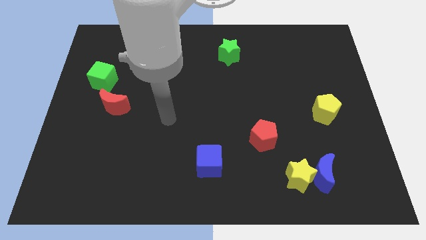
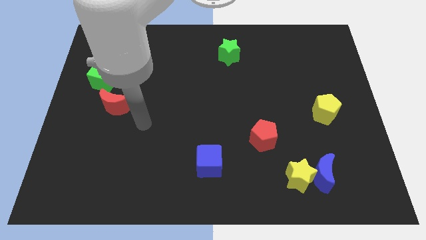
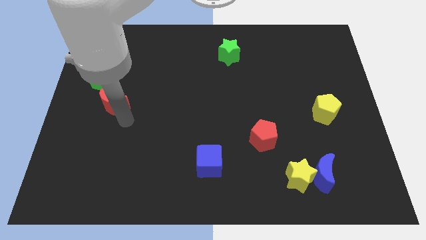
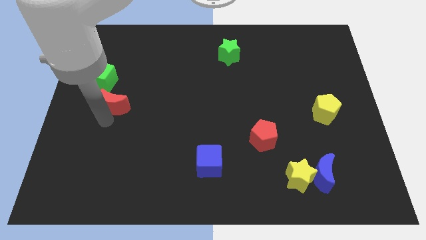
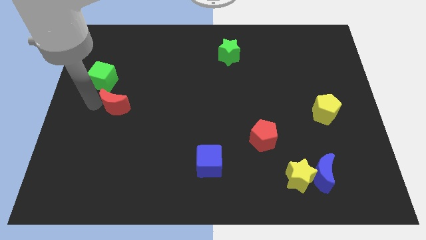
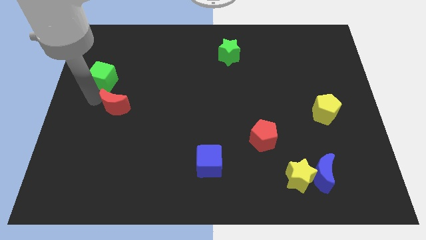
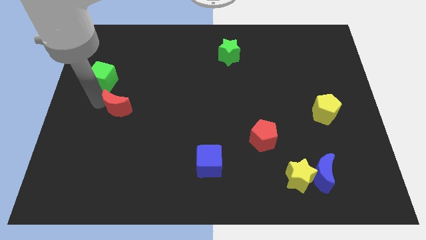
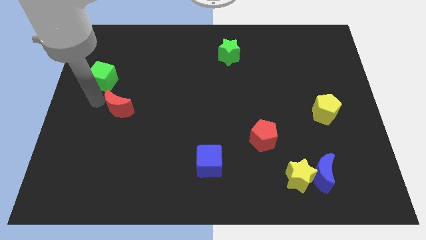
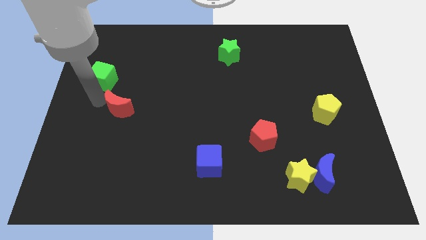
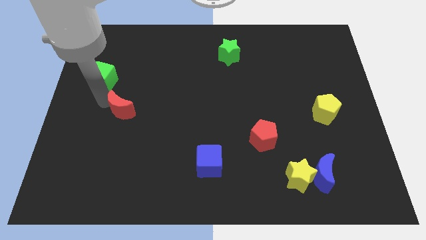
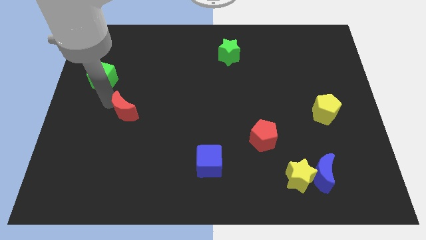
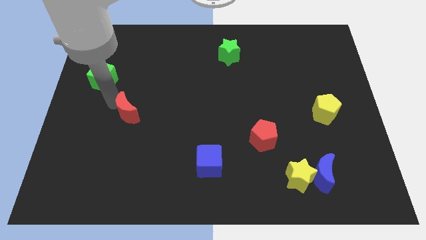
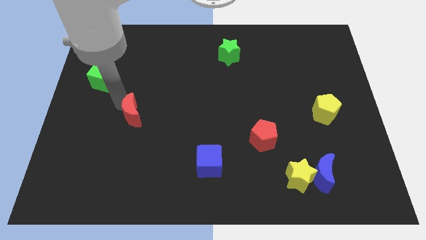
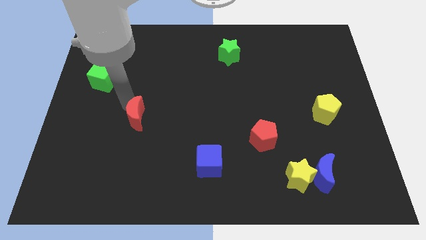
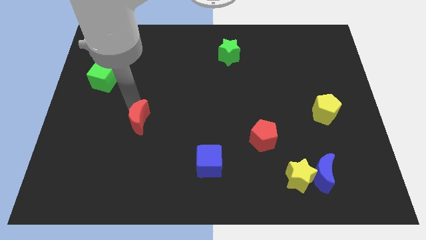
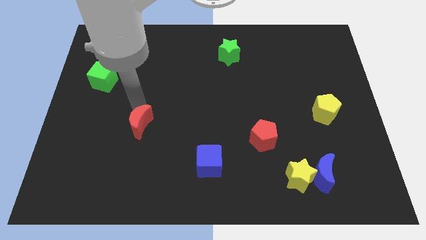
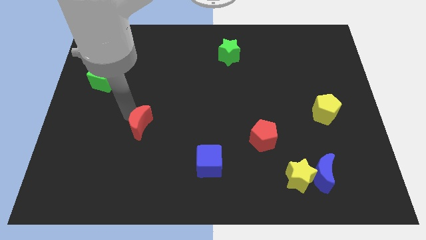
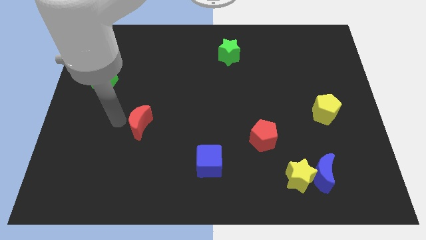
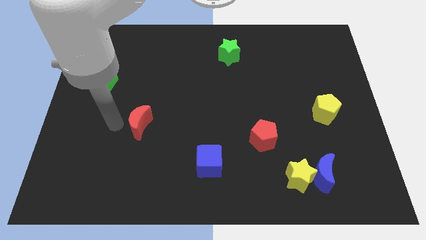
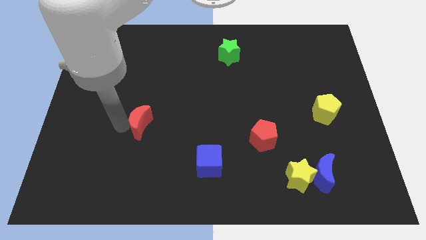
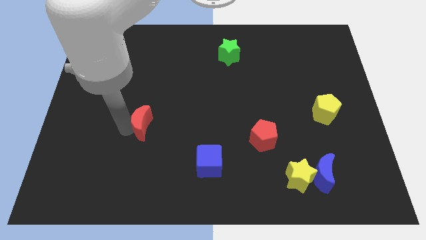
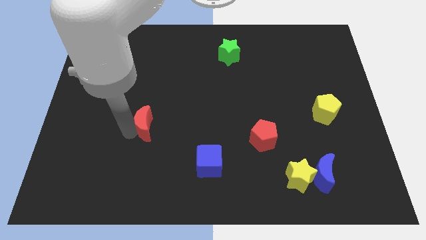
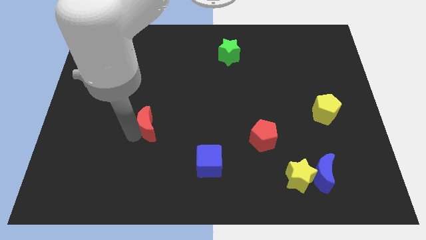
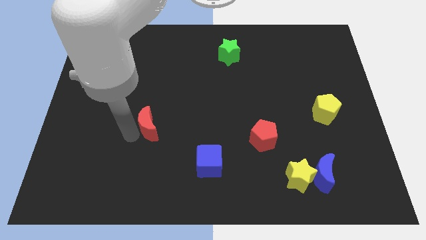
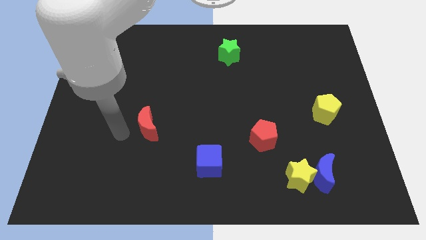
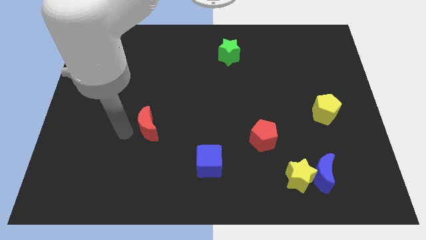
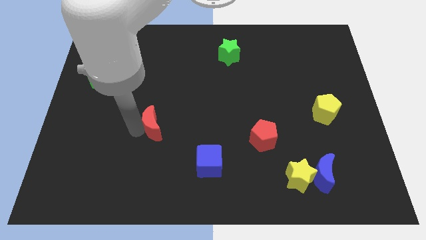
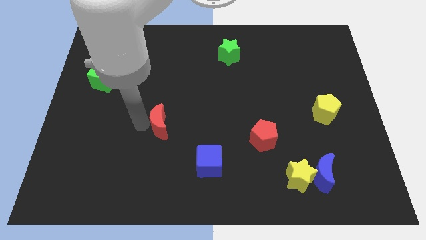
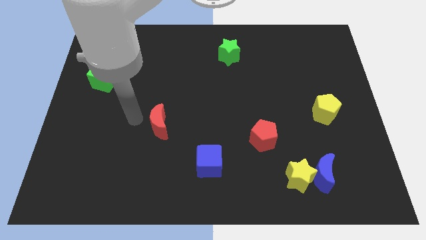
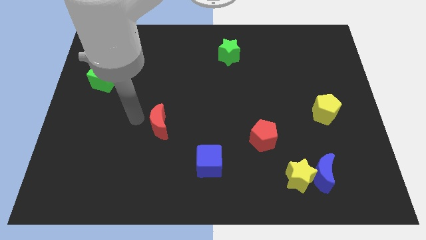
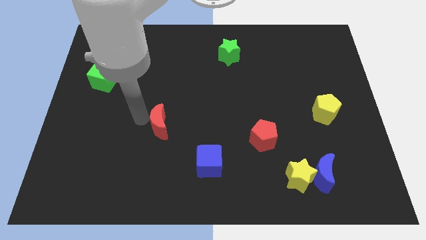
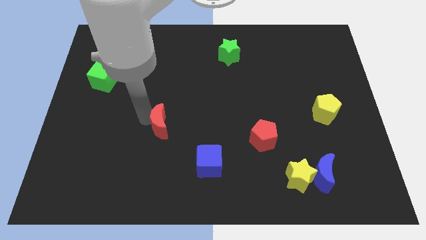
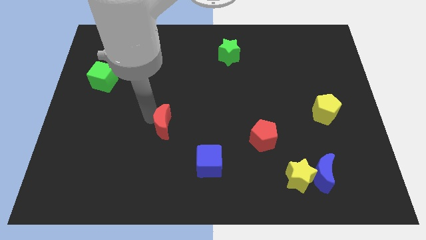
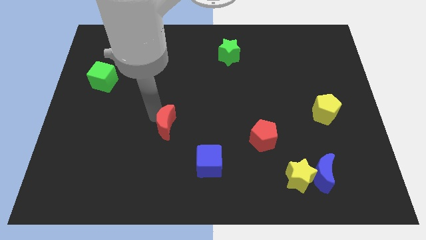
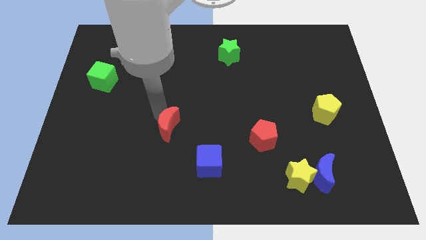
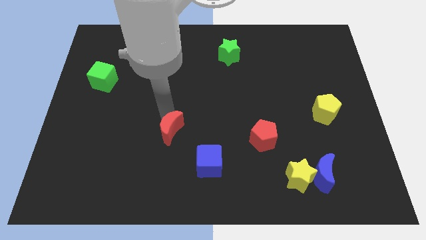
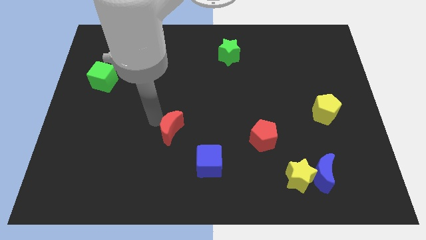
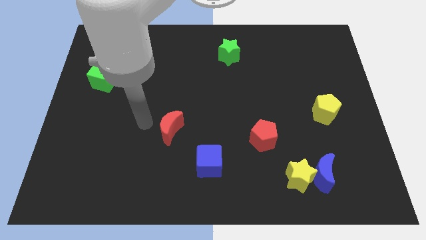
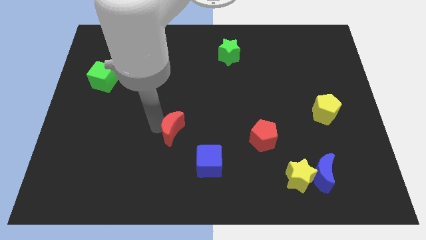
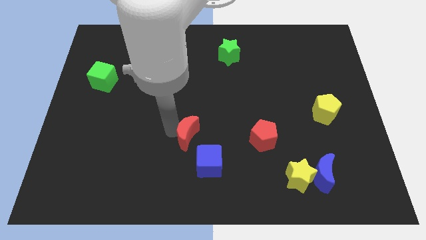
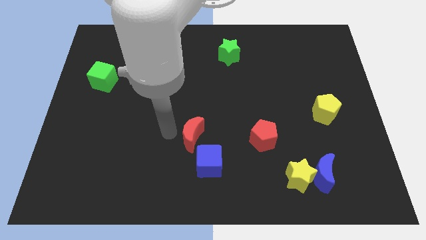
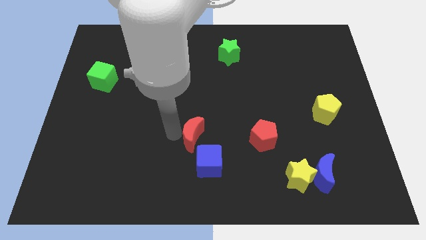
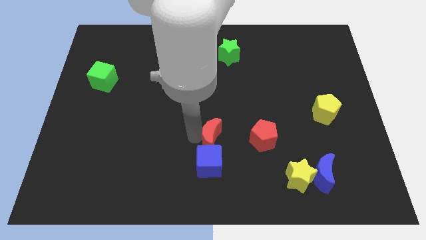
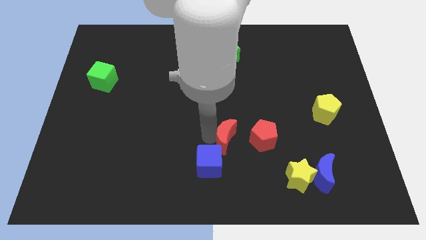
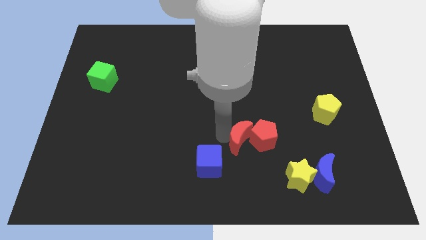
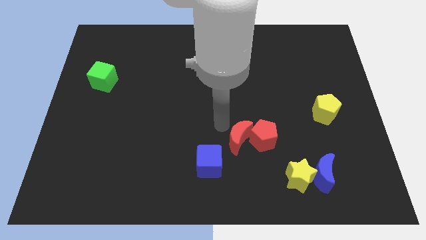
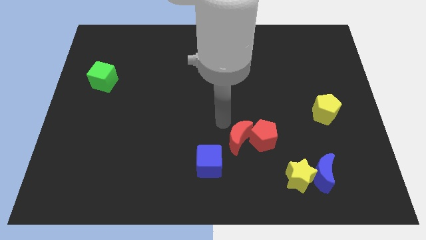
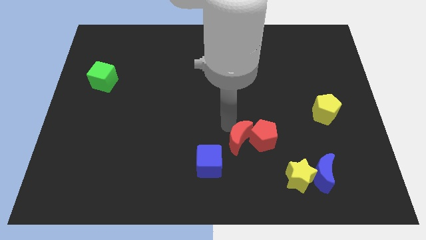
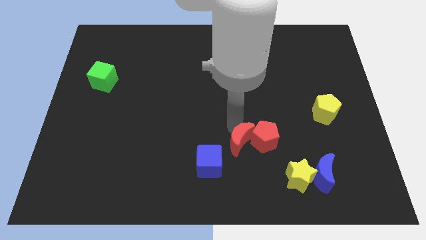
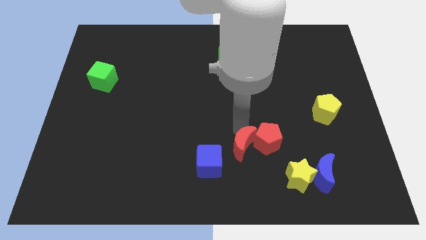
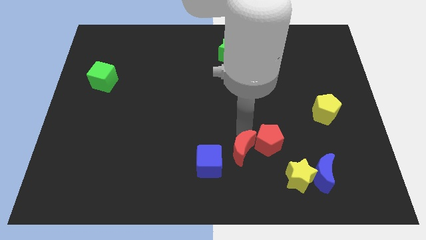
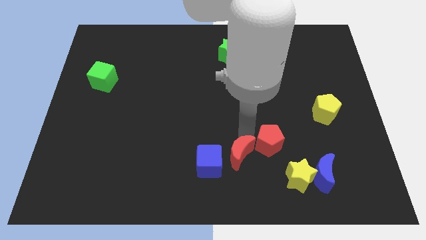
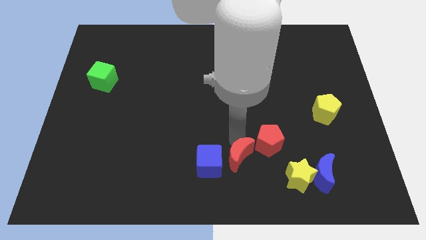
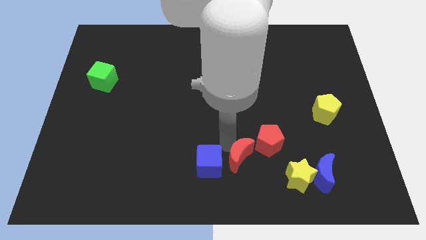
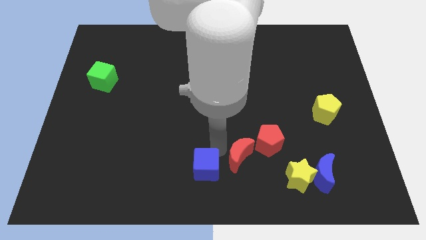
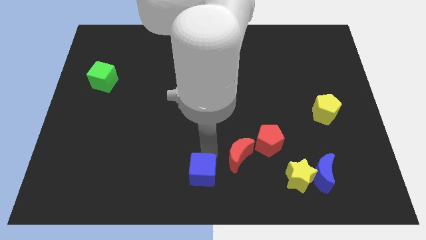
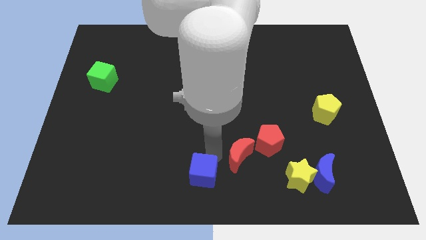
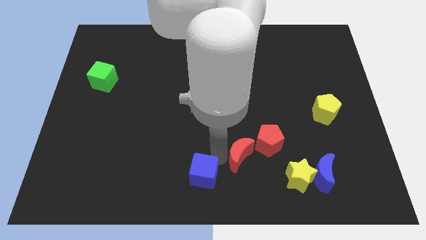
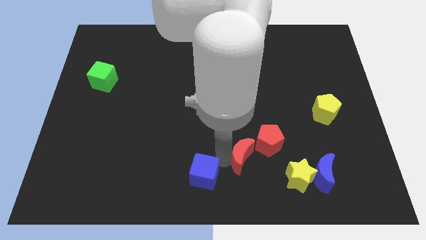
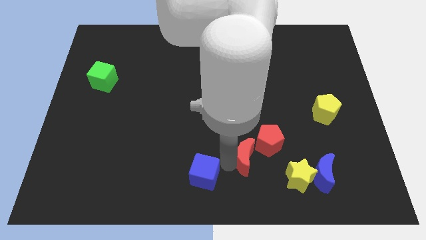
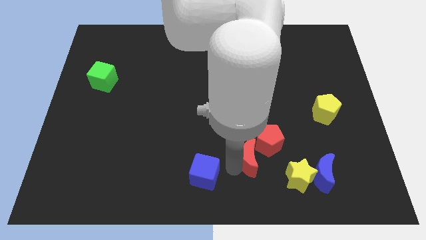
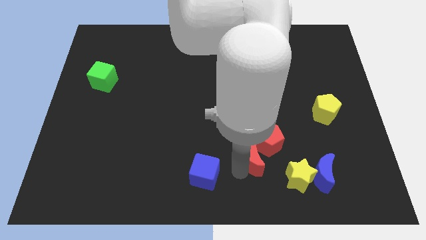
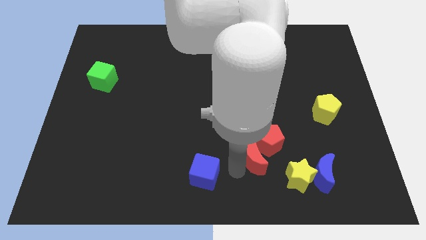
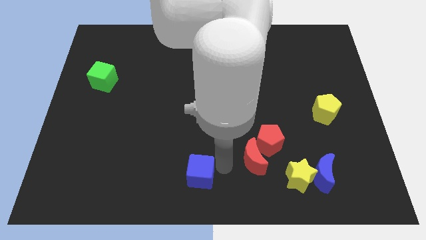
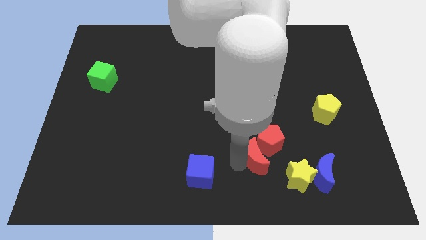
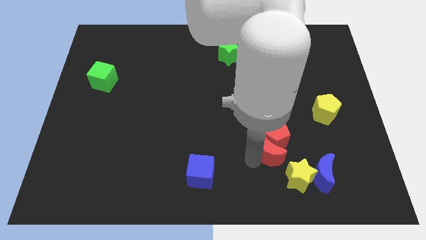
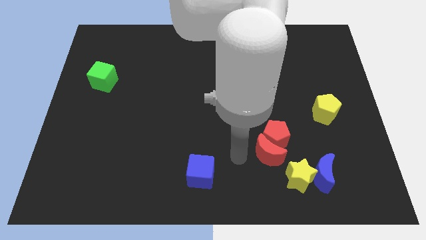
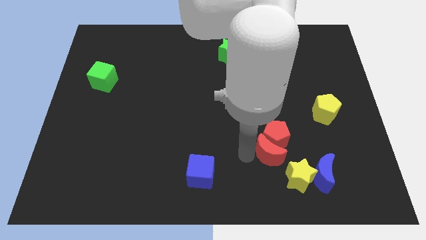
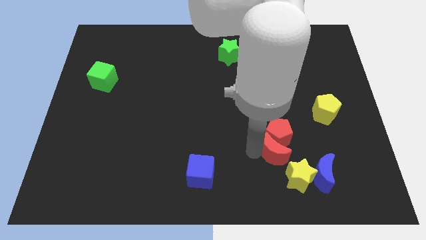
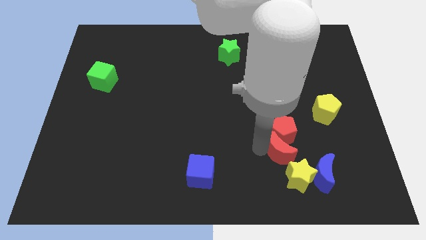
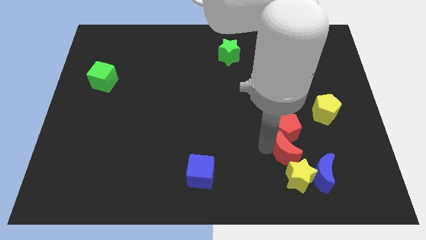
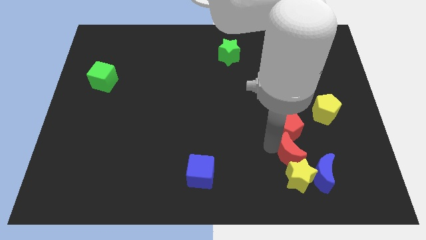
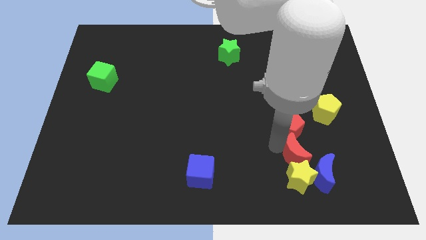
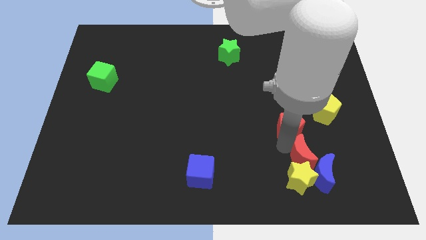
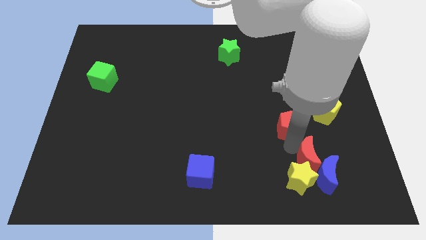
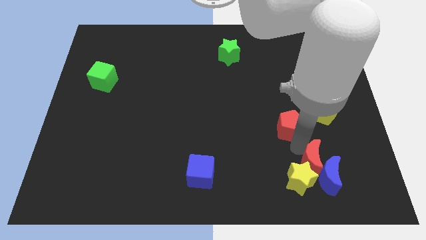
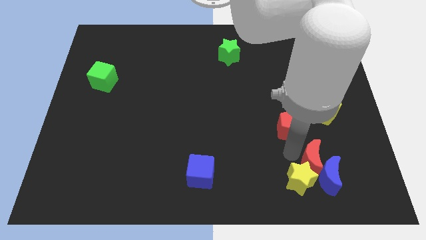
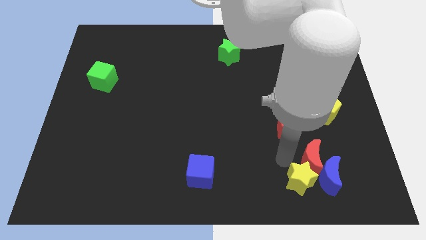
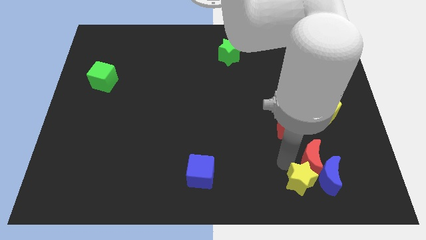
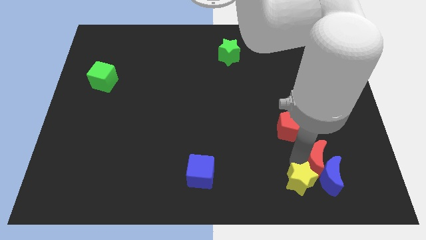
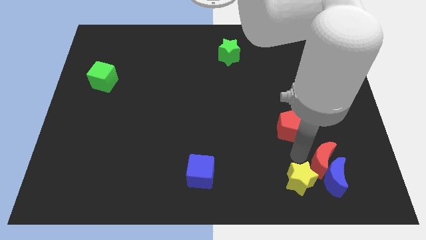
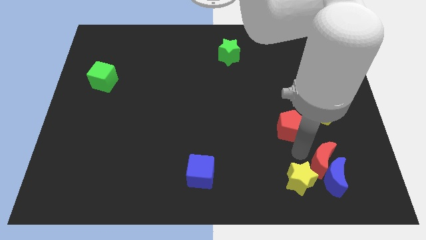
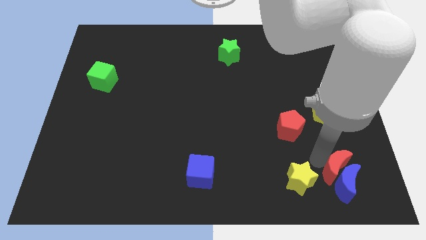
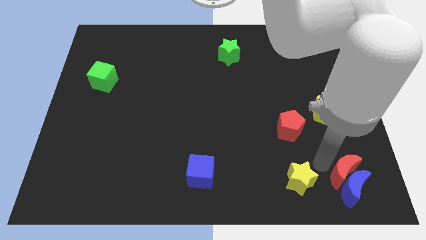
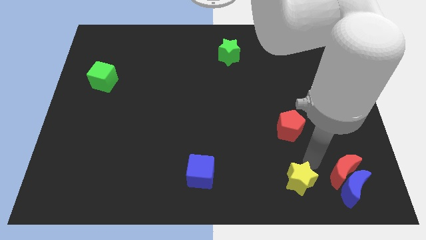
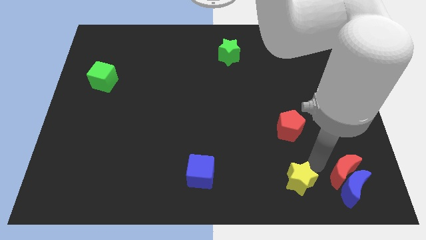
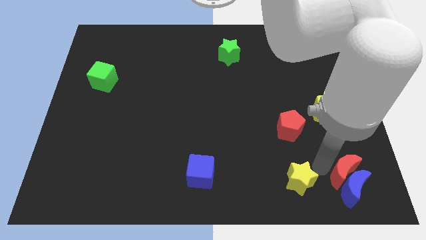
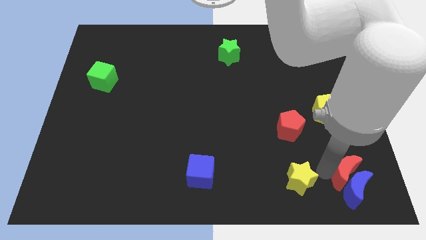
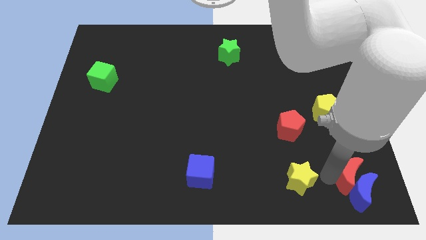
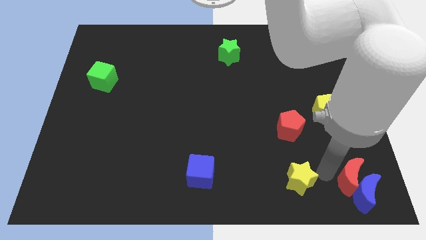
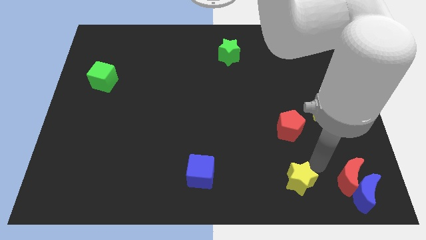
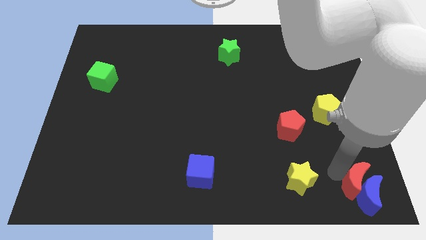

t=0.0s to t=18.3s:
slide the red moon to the bottom right of the board
